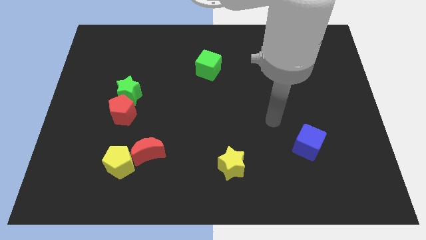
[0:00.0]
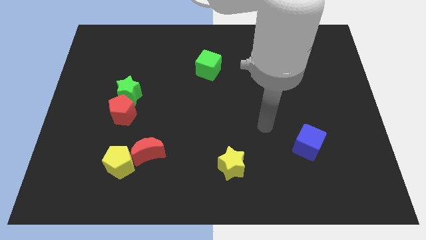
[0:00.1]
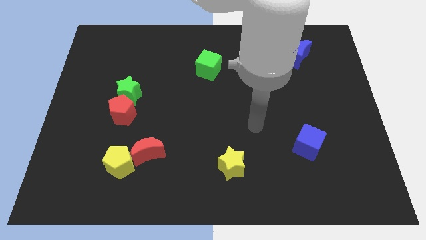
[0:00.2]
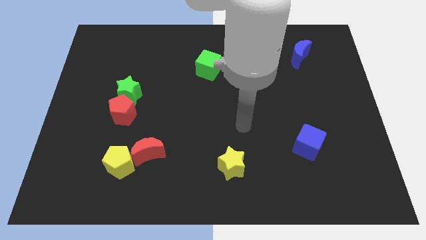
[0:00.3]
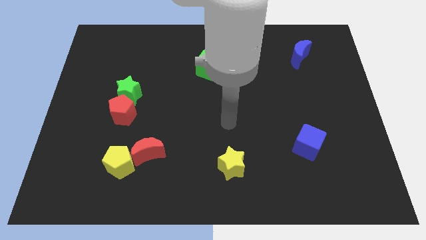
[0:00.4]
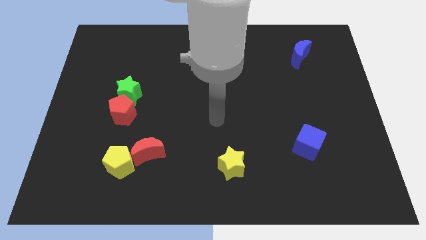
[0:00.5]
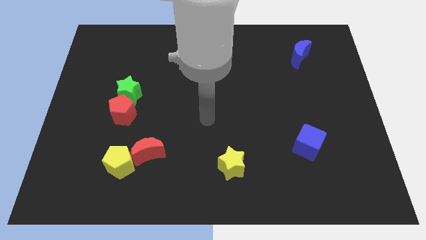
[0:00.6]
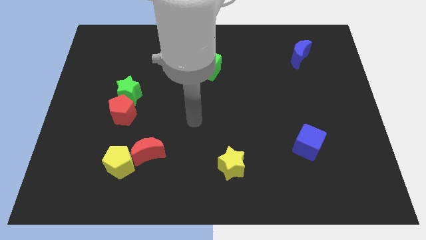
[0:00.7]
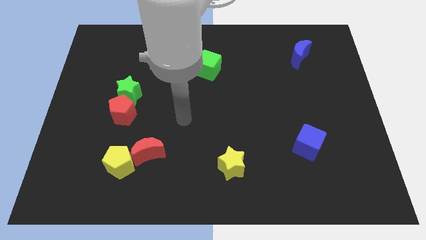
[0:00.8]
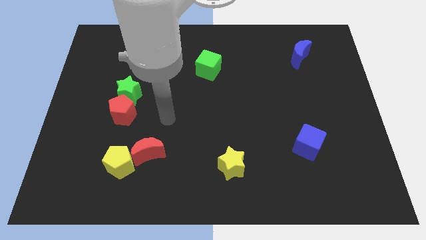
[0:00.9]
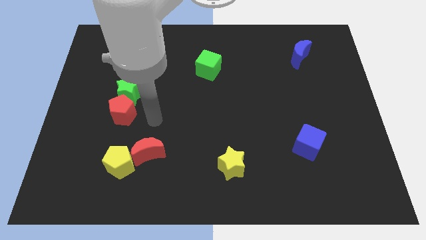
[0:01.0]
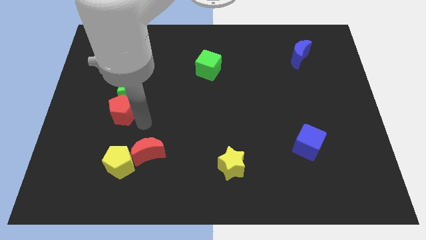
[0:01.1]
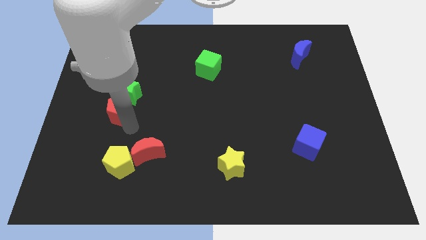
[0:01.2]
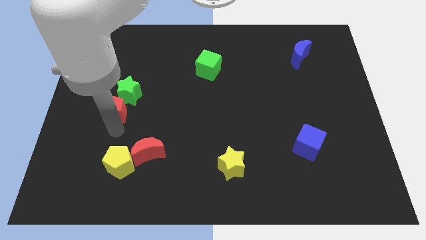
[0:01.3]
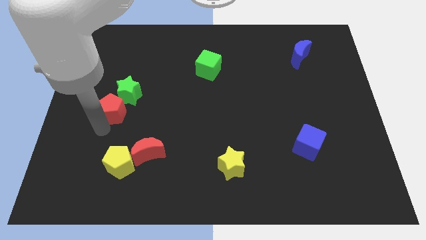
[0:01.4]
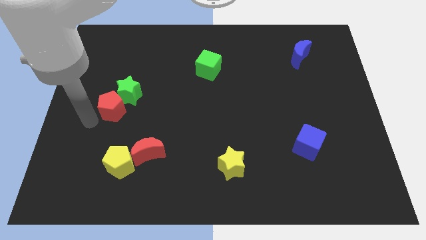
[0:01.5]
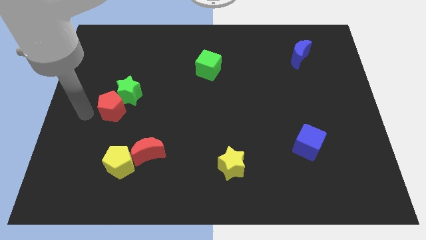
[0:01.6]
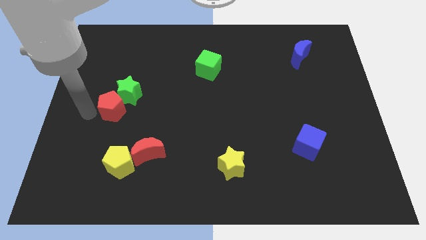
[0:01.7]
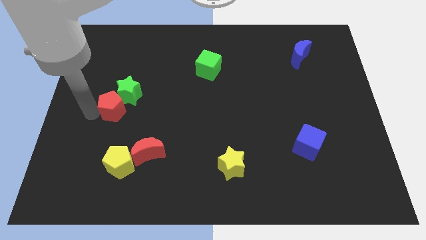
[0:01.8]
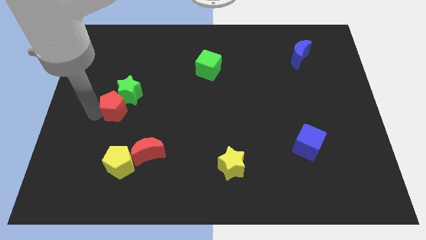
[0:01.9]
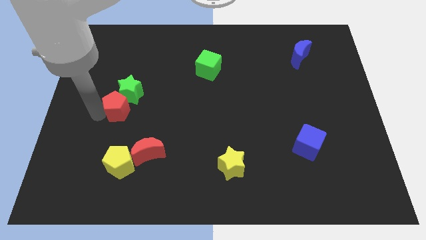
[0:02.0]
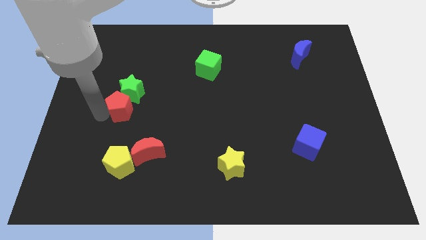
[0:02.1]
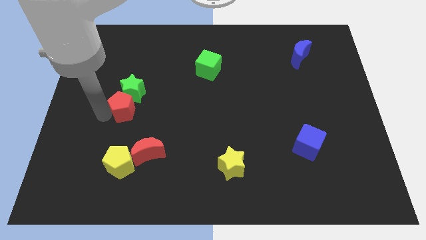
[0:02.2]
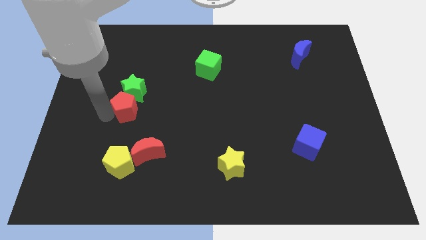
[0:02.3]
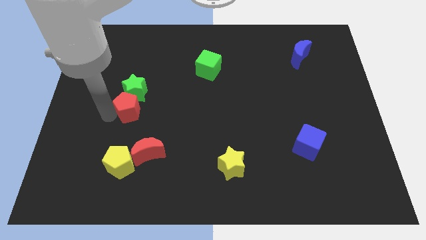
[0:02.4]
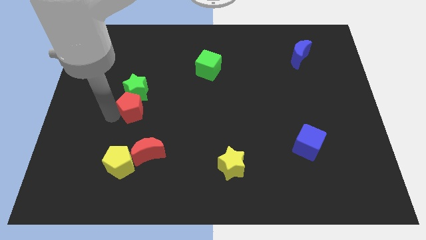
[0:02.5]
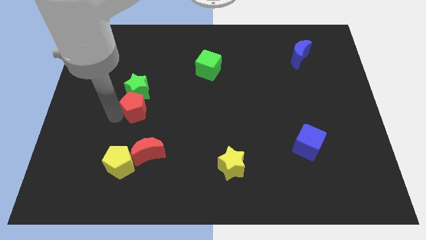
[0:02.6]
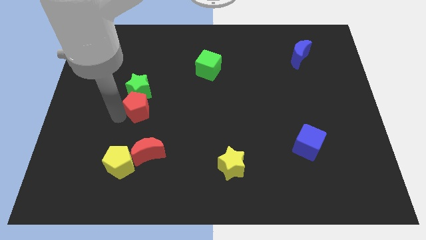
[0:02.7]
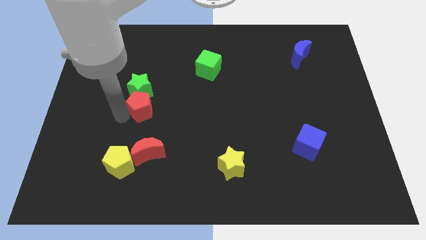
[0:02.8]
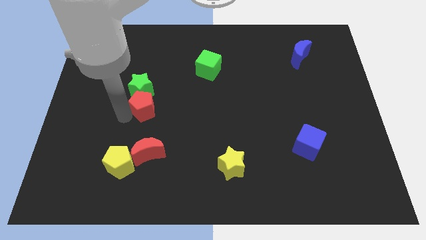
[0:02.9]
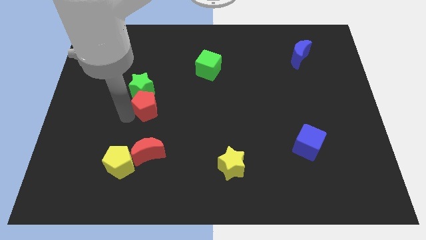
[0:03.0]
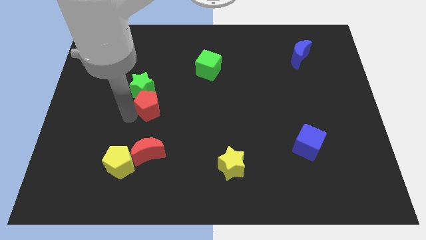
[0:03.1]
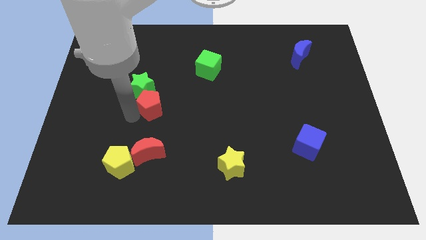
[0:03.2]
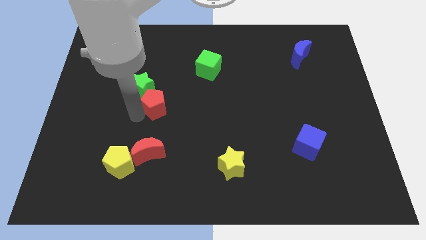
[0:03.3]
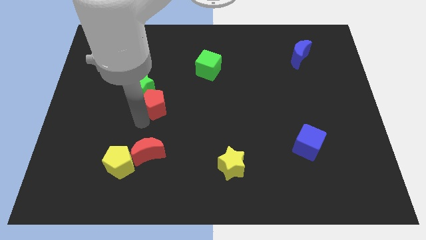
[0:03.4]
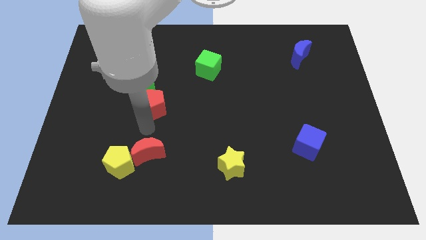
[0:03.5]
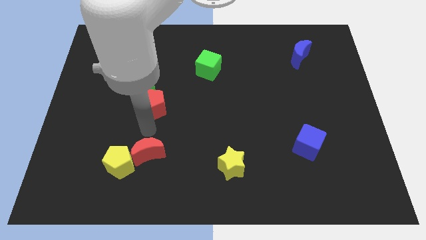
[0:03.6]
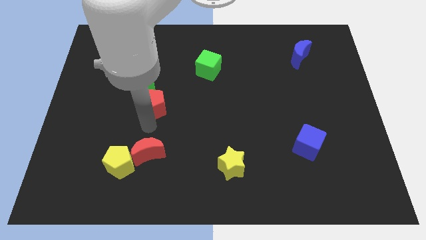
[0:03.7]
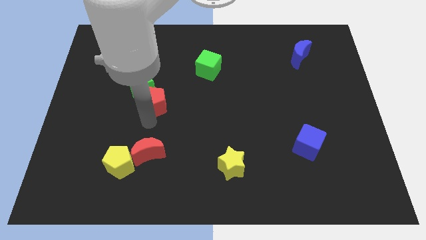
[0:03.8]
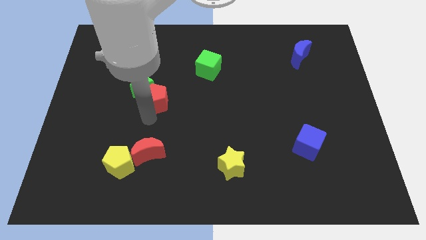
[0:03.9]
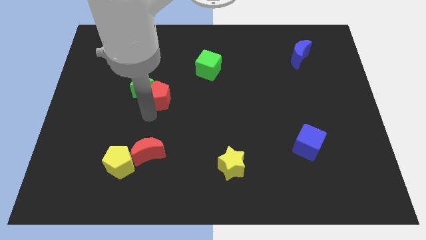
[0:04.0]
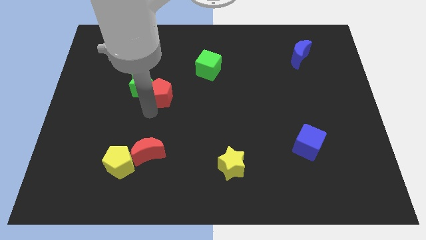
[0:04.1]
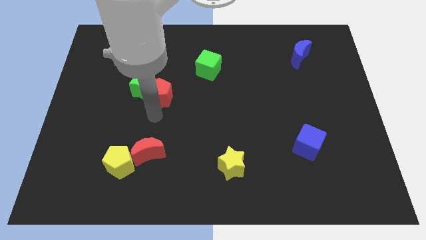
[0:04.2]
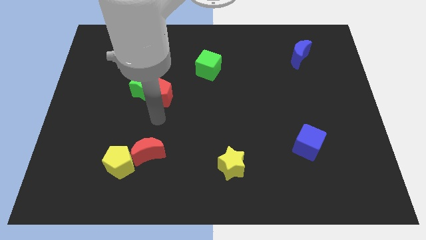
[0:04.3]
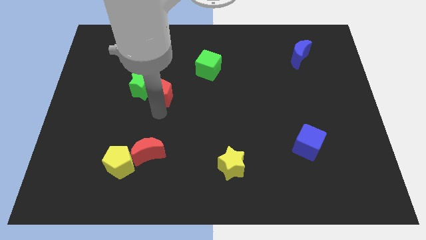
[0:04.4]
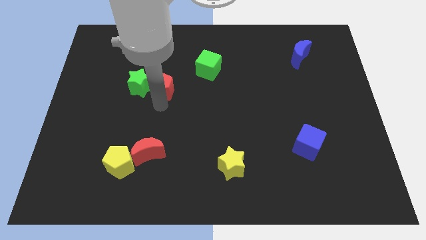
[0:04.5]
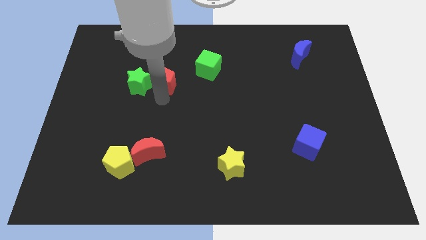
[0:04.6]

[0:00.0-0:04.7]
push the red pentagon diagonally up and to the right of the green star

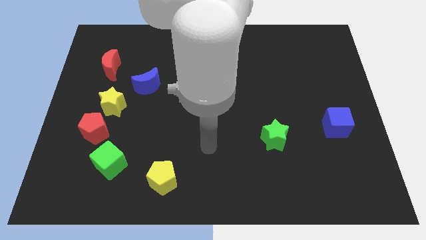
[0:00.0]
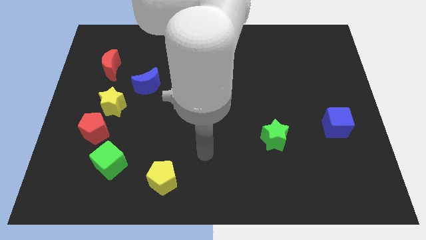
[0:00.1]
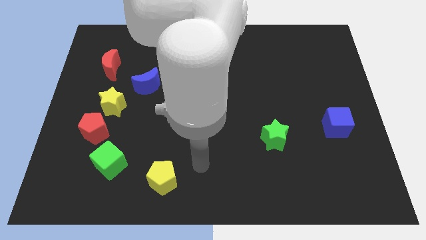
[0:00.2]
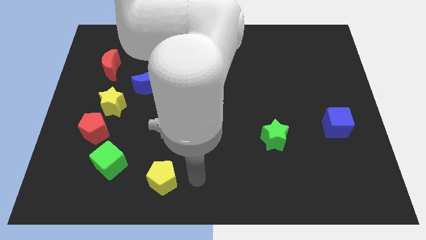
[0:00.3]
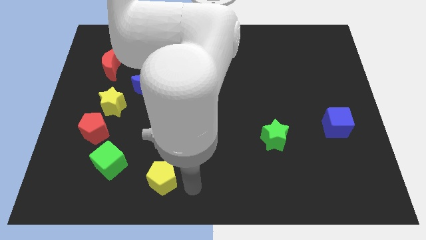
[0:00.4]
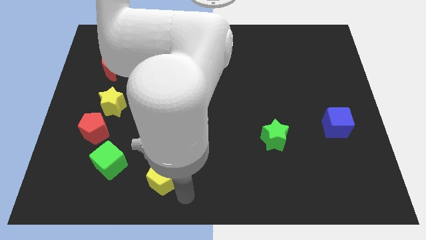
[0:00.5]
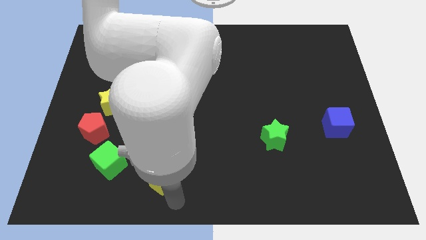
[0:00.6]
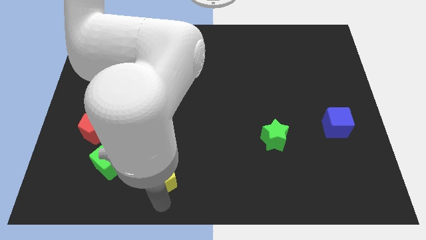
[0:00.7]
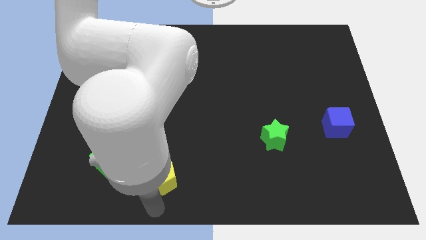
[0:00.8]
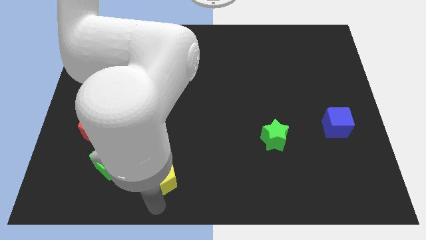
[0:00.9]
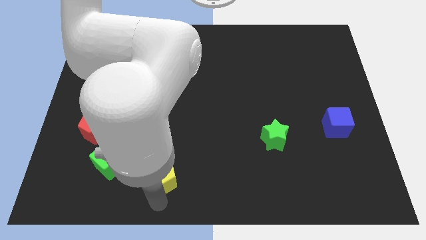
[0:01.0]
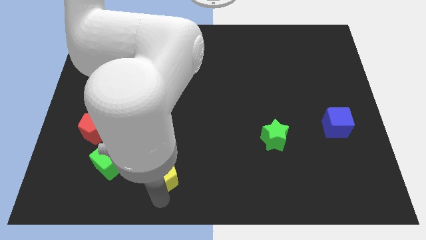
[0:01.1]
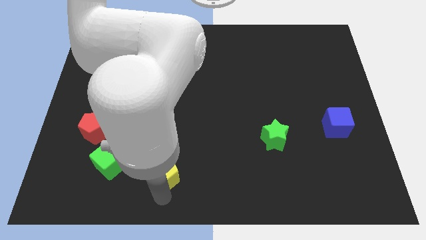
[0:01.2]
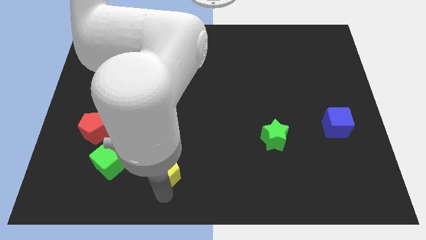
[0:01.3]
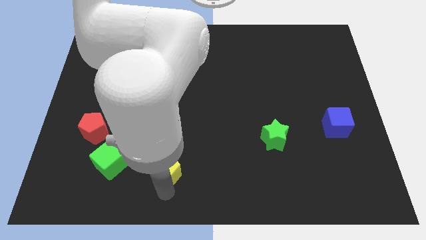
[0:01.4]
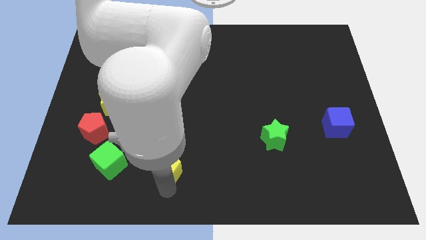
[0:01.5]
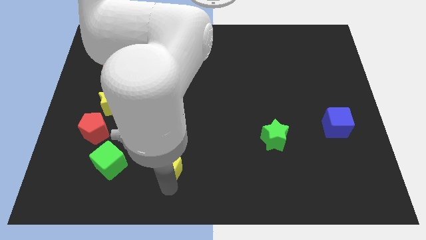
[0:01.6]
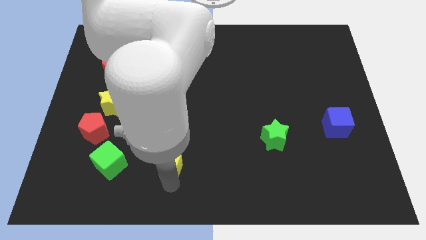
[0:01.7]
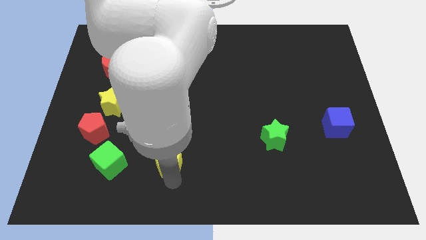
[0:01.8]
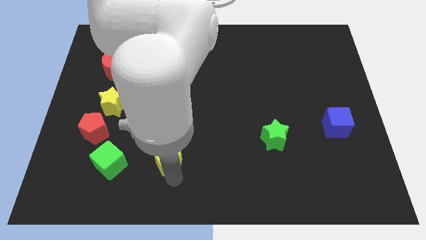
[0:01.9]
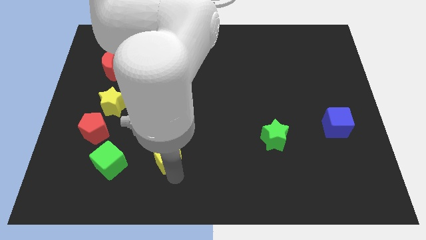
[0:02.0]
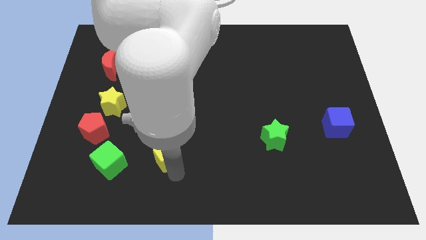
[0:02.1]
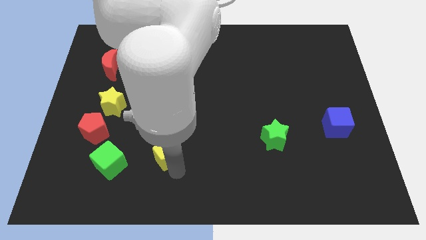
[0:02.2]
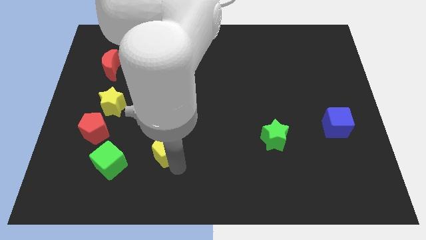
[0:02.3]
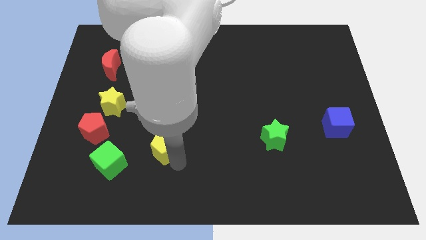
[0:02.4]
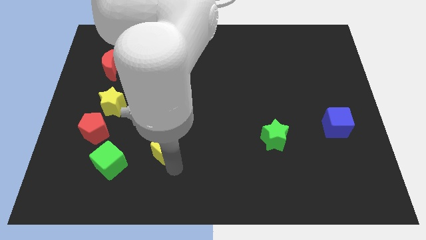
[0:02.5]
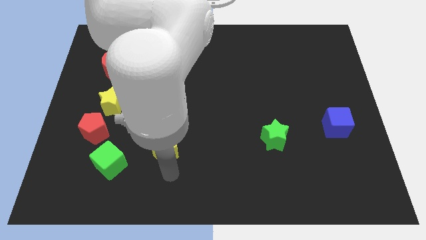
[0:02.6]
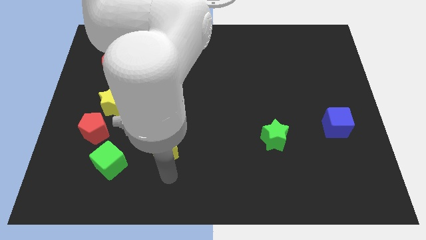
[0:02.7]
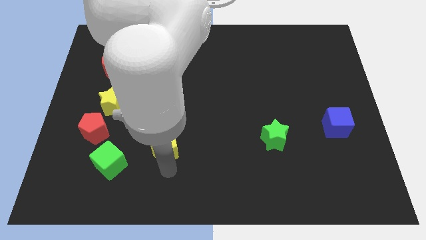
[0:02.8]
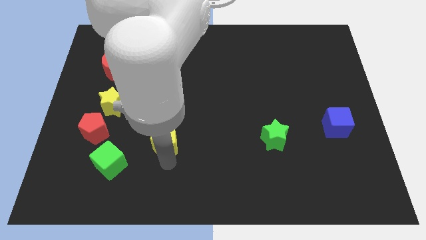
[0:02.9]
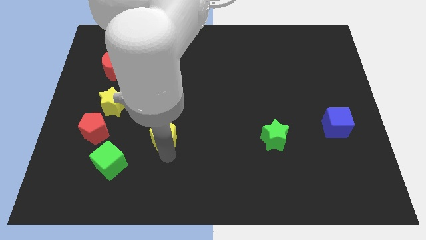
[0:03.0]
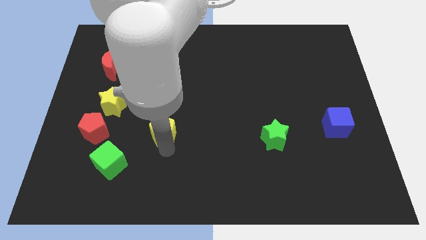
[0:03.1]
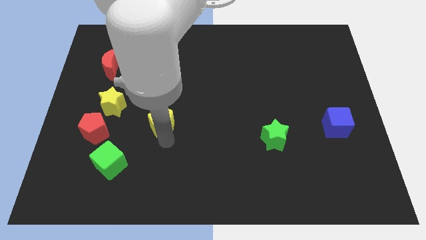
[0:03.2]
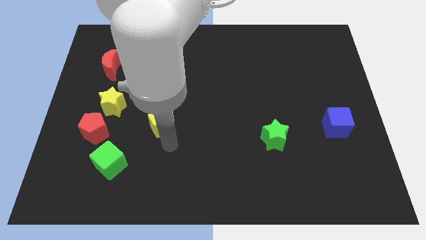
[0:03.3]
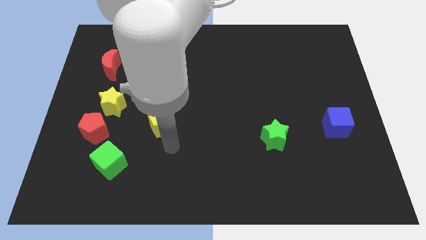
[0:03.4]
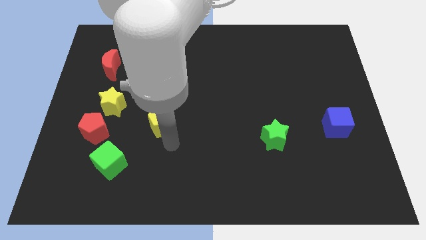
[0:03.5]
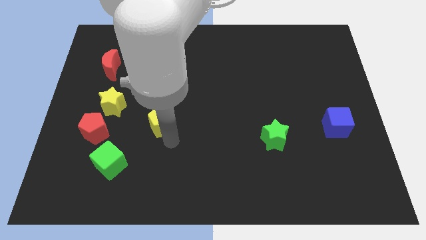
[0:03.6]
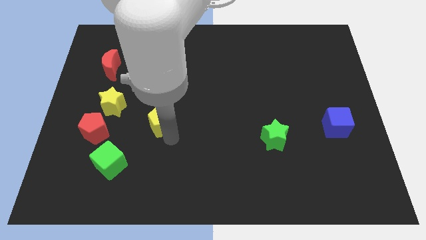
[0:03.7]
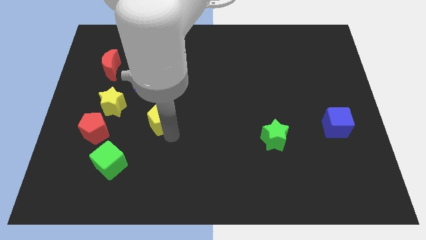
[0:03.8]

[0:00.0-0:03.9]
put the yellow pentagon to the right of the yellow star
